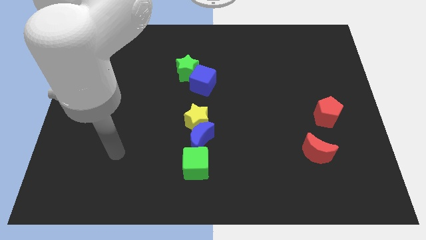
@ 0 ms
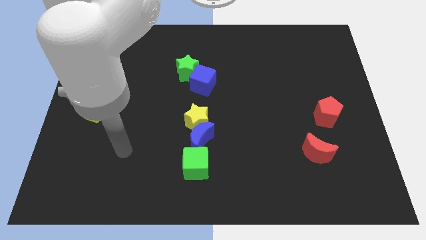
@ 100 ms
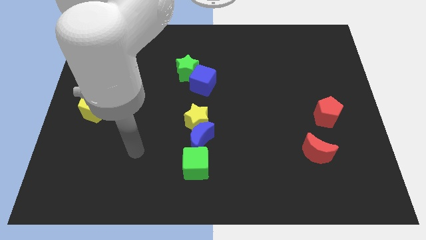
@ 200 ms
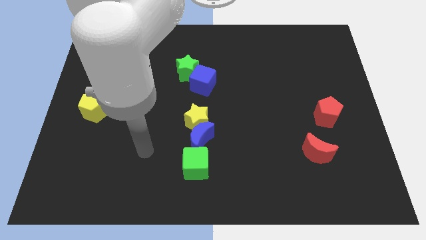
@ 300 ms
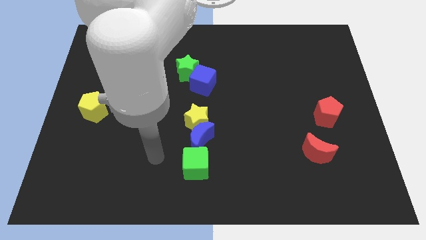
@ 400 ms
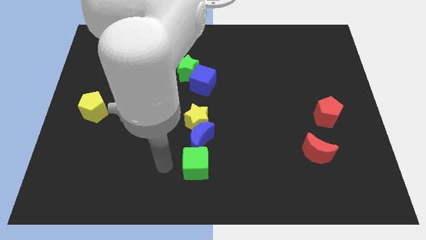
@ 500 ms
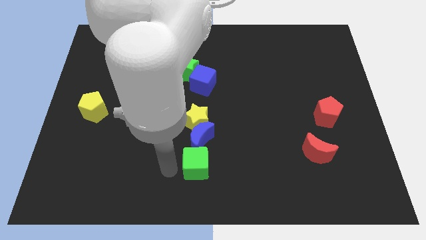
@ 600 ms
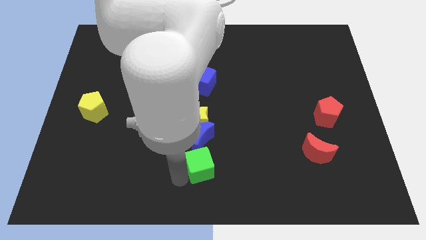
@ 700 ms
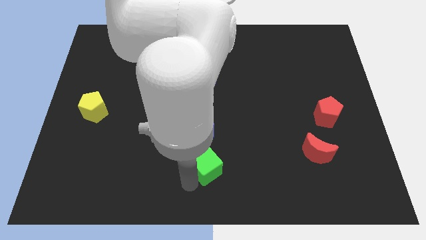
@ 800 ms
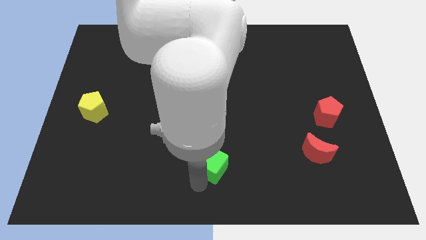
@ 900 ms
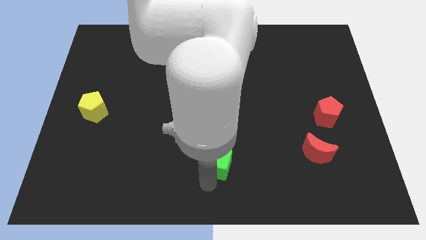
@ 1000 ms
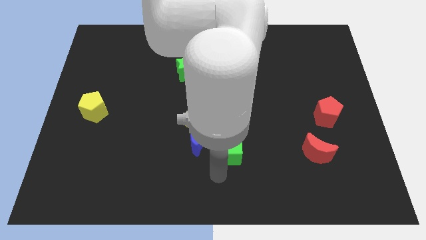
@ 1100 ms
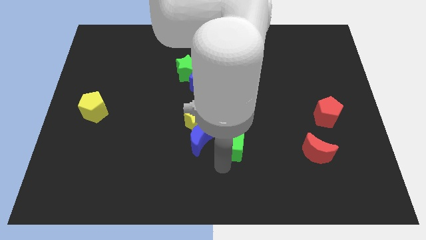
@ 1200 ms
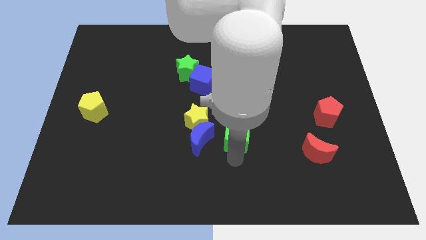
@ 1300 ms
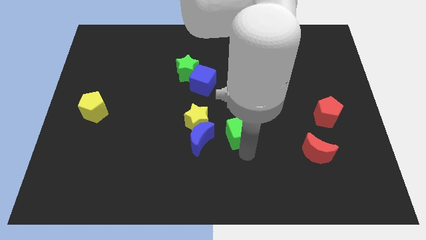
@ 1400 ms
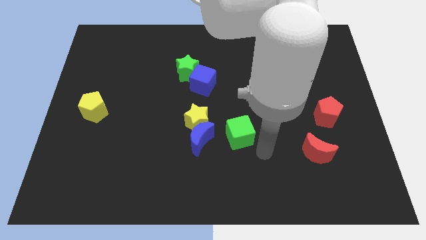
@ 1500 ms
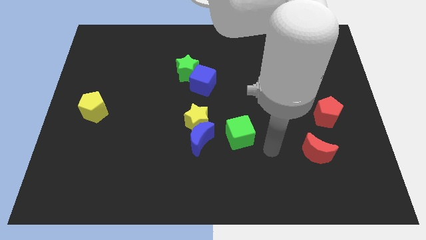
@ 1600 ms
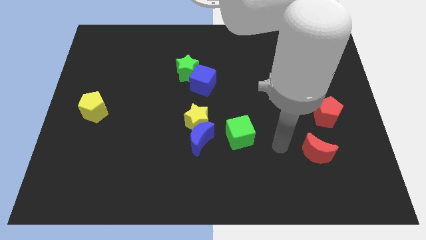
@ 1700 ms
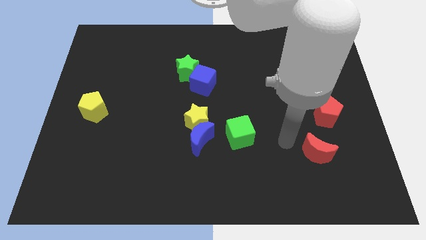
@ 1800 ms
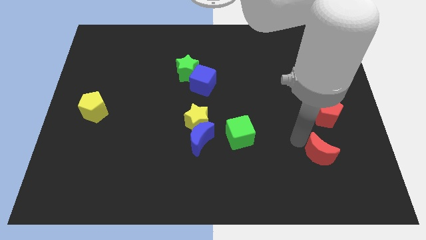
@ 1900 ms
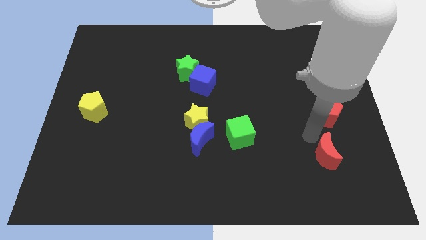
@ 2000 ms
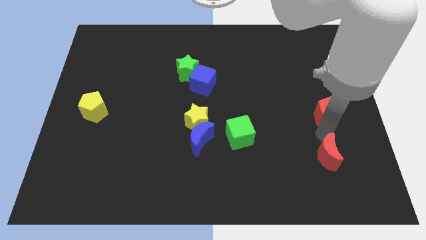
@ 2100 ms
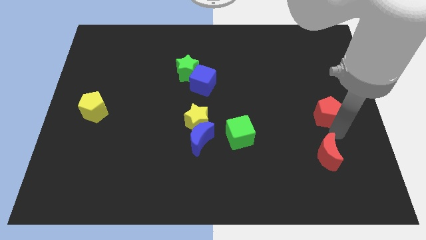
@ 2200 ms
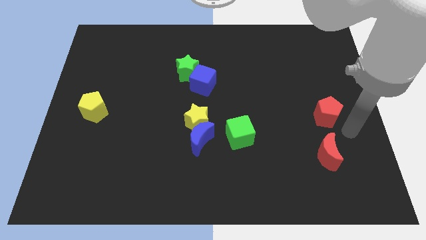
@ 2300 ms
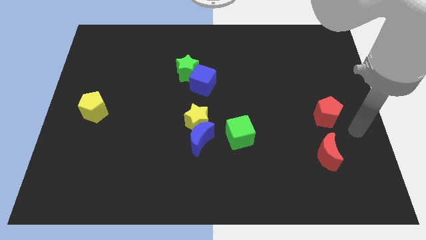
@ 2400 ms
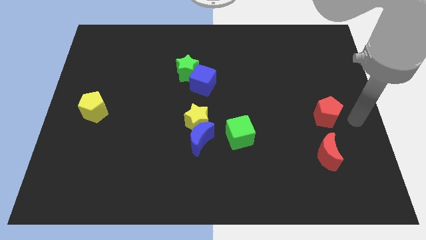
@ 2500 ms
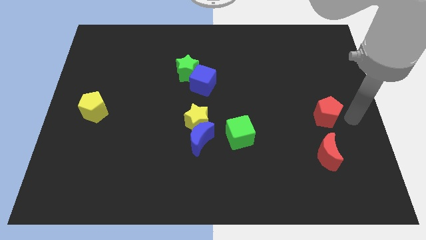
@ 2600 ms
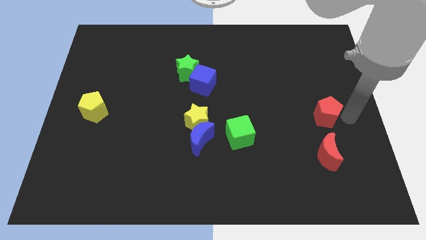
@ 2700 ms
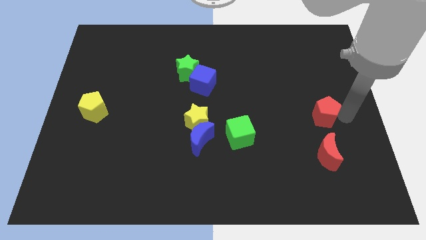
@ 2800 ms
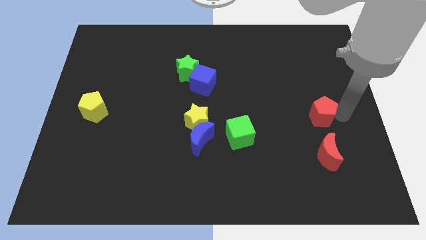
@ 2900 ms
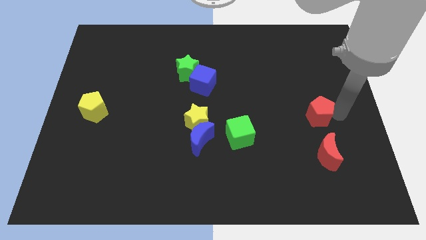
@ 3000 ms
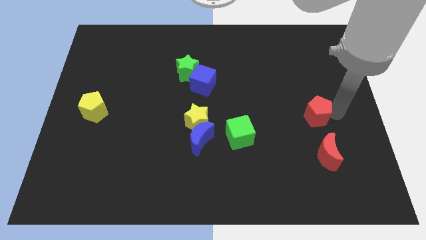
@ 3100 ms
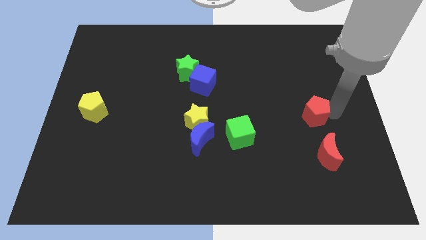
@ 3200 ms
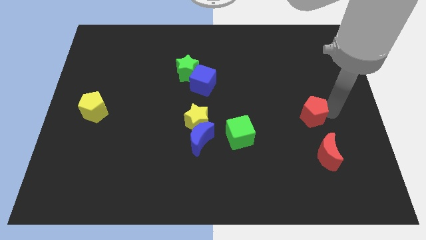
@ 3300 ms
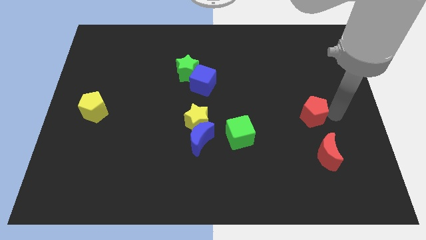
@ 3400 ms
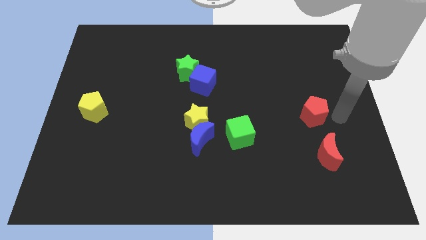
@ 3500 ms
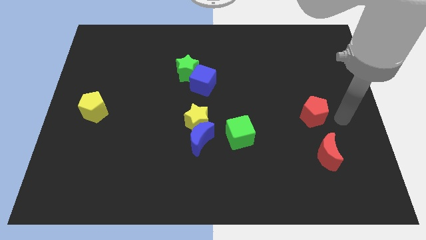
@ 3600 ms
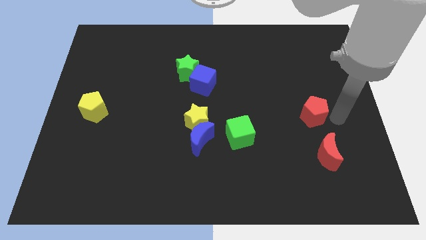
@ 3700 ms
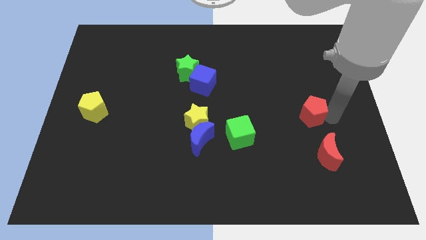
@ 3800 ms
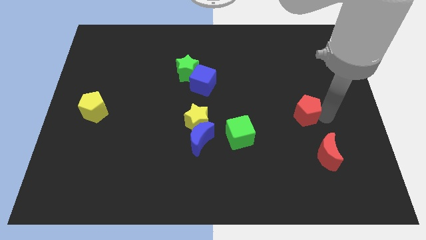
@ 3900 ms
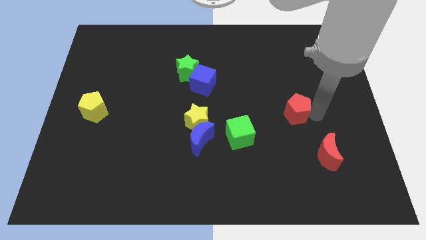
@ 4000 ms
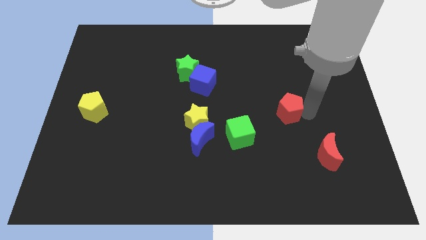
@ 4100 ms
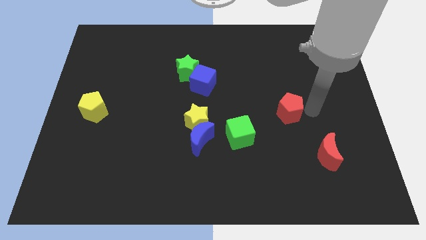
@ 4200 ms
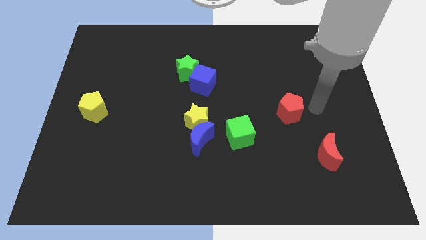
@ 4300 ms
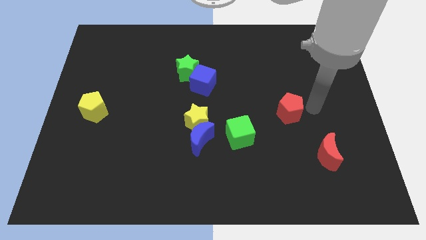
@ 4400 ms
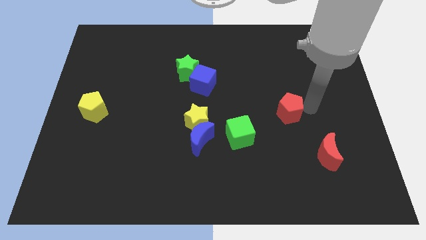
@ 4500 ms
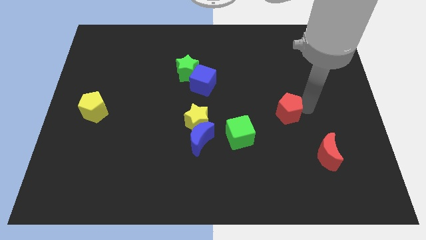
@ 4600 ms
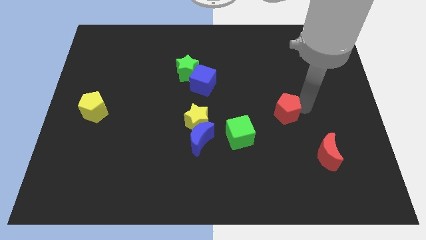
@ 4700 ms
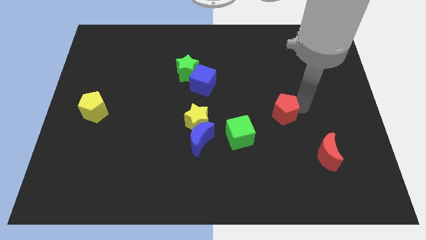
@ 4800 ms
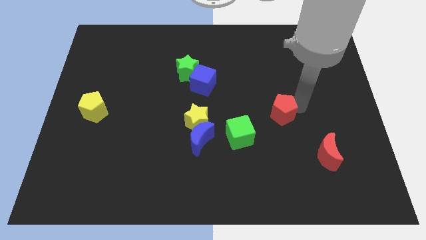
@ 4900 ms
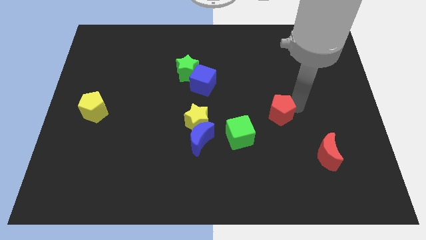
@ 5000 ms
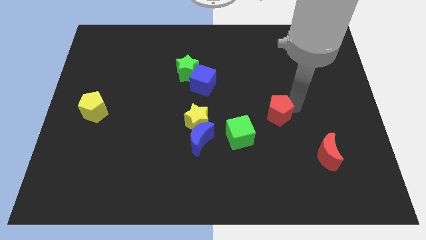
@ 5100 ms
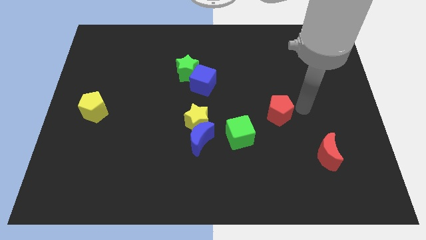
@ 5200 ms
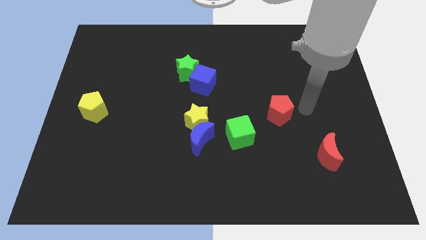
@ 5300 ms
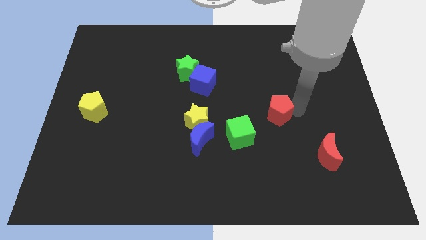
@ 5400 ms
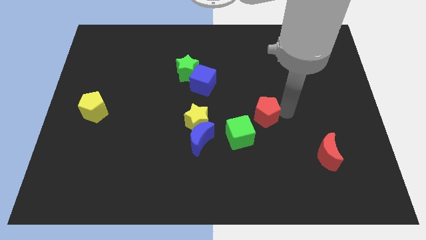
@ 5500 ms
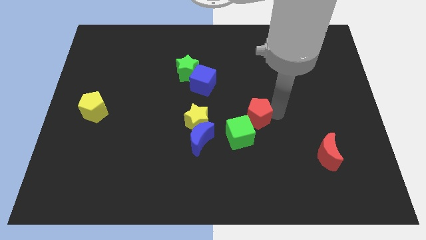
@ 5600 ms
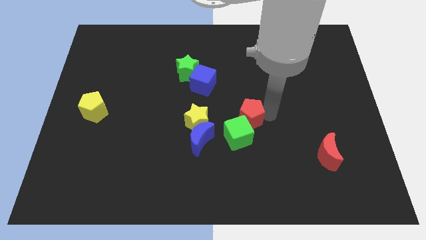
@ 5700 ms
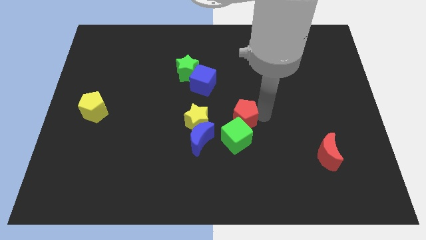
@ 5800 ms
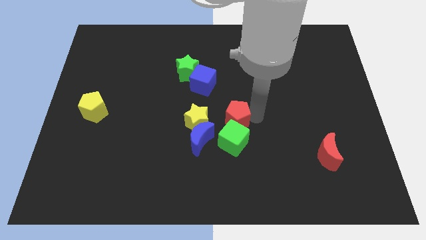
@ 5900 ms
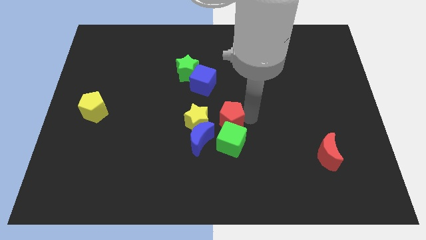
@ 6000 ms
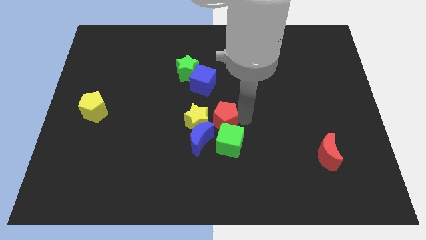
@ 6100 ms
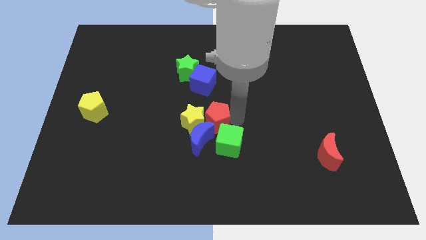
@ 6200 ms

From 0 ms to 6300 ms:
move the red pentagon close to the yellow star
